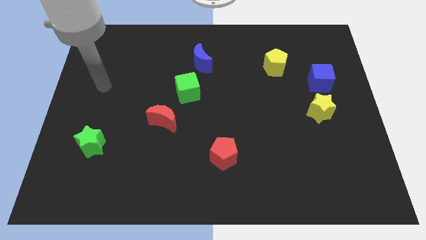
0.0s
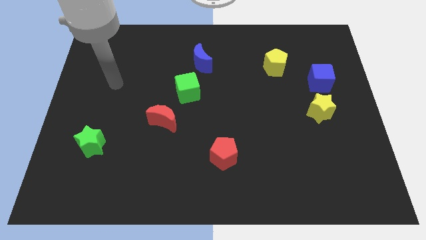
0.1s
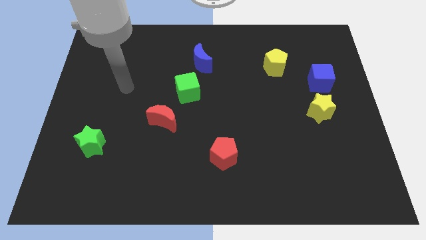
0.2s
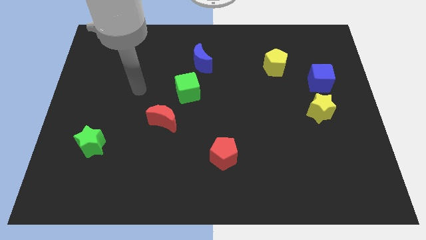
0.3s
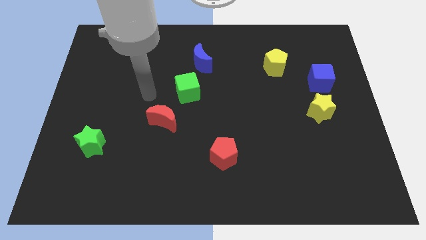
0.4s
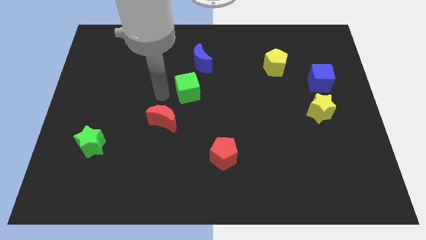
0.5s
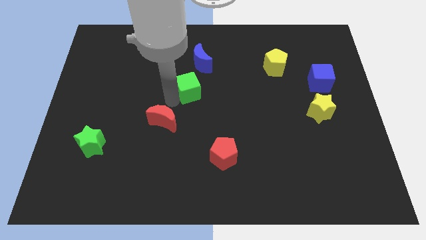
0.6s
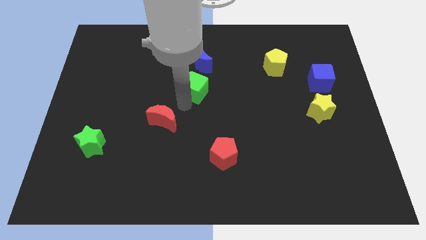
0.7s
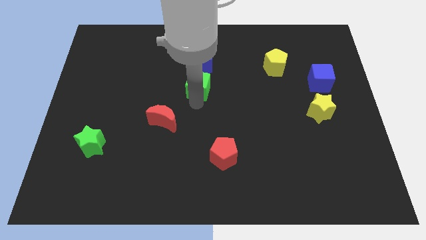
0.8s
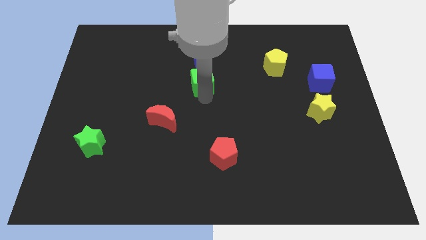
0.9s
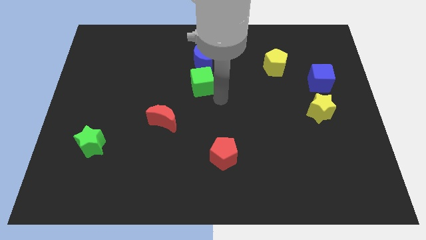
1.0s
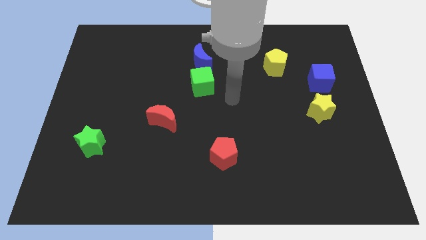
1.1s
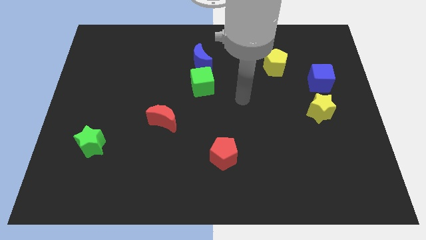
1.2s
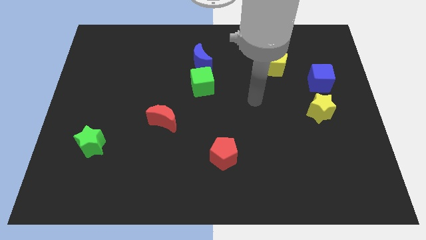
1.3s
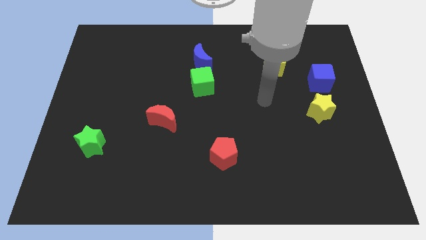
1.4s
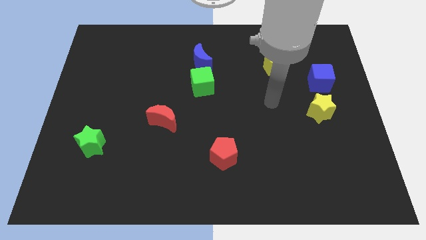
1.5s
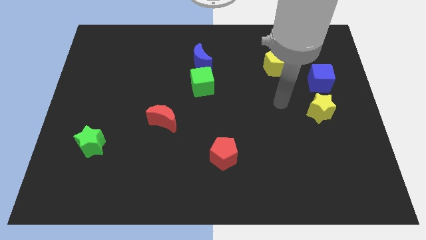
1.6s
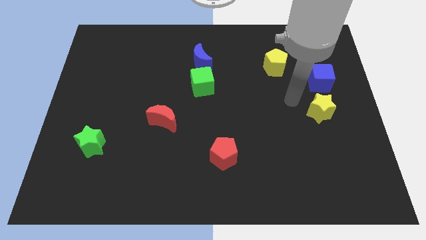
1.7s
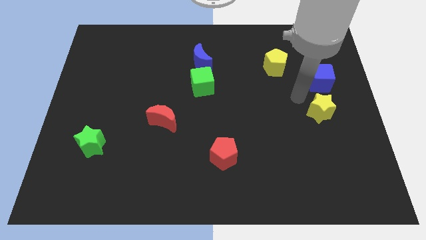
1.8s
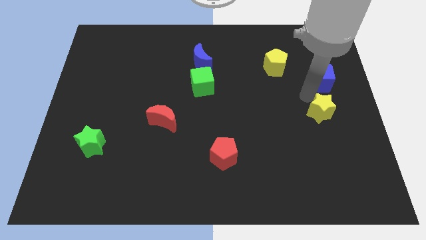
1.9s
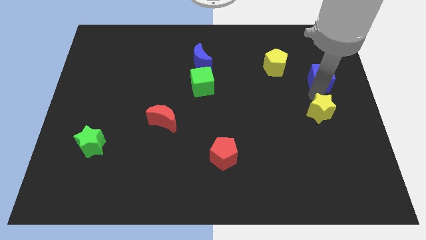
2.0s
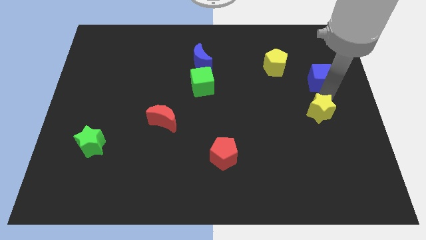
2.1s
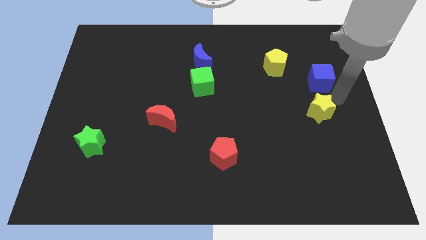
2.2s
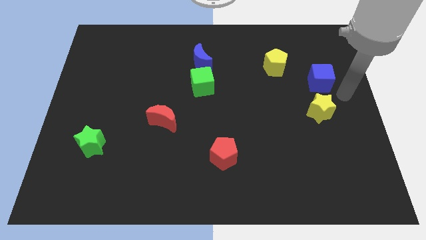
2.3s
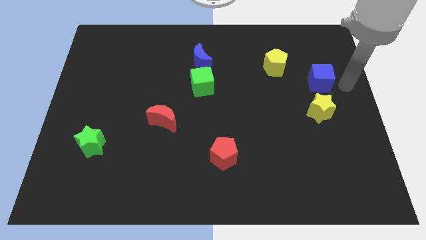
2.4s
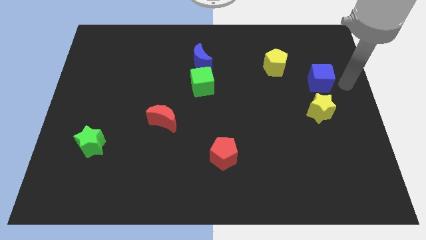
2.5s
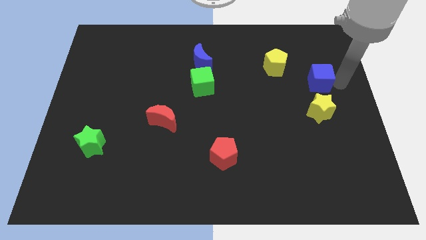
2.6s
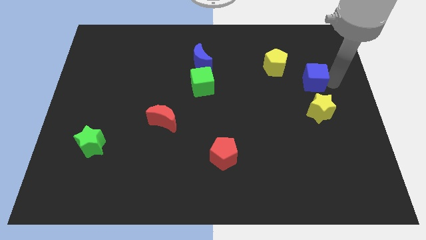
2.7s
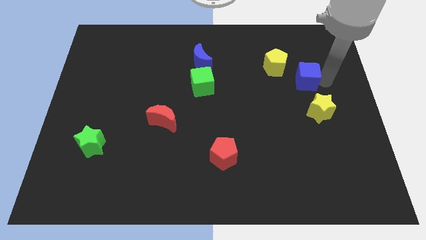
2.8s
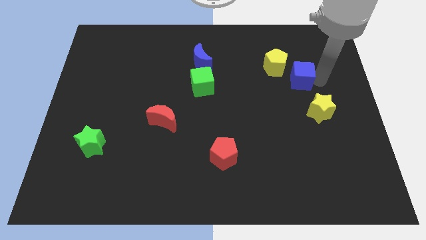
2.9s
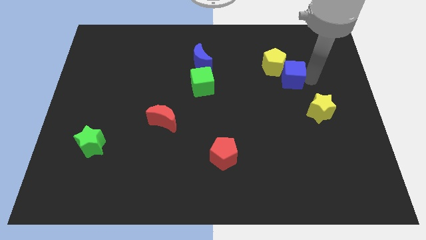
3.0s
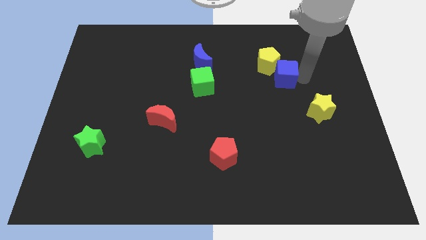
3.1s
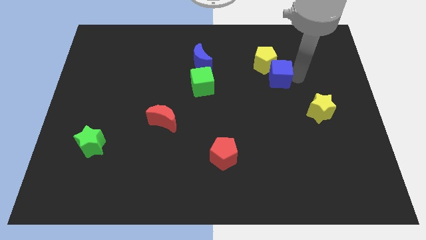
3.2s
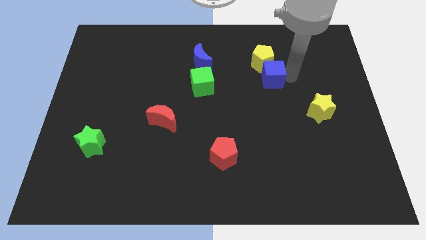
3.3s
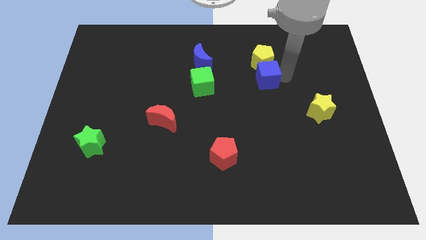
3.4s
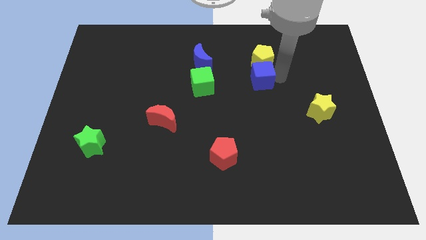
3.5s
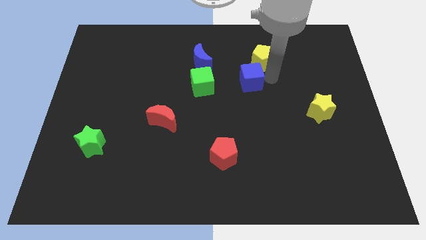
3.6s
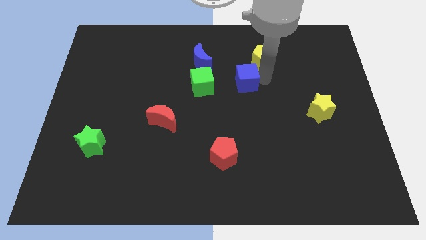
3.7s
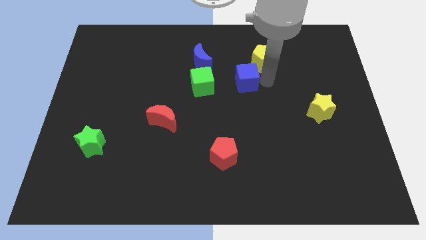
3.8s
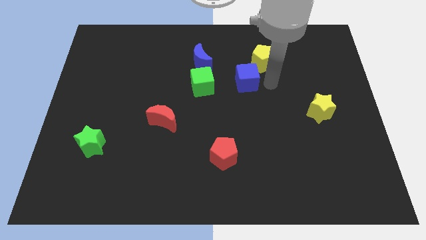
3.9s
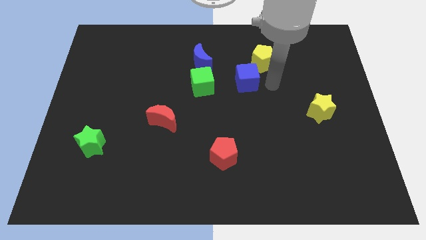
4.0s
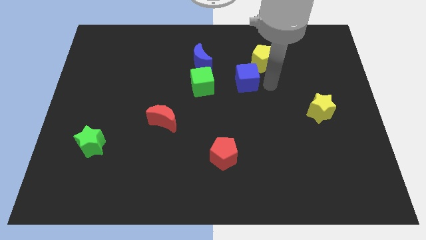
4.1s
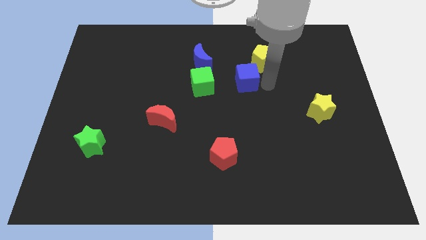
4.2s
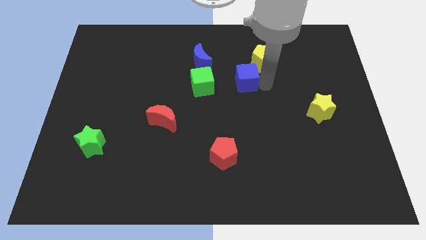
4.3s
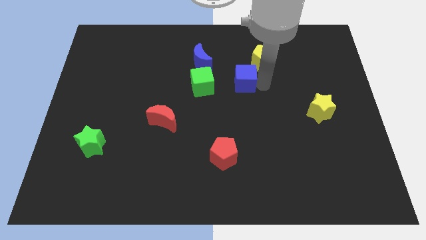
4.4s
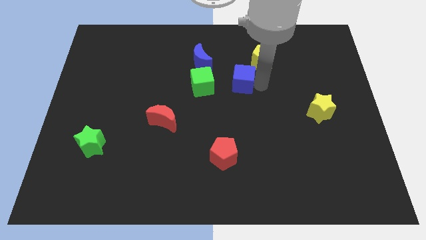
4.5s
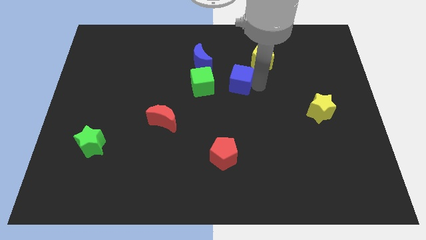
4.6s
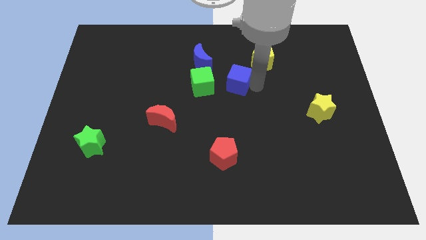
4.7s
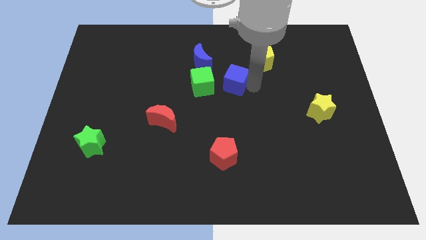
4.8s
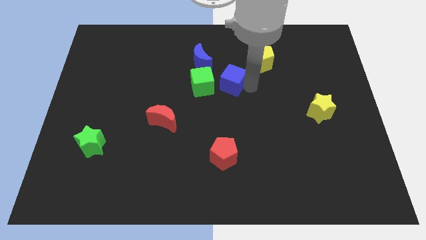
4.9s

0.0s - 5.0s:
slide the blue cube to the top right side of the green cube

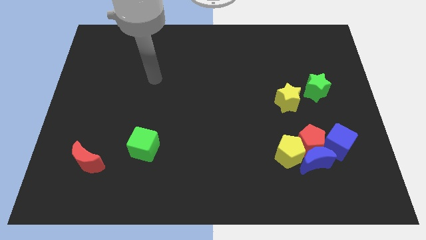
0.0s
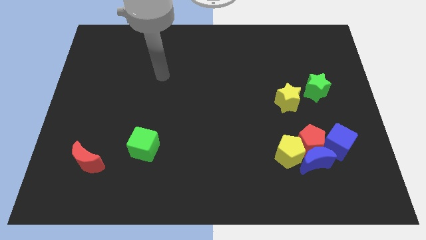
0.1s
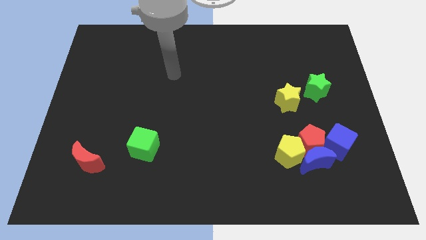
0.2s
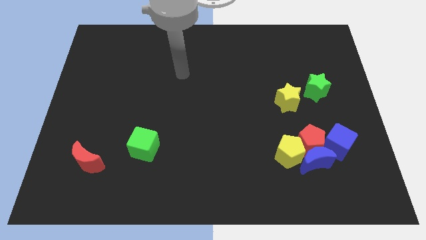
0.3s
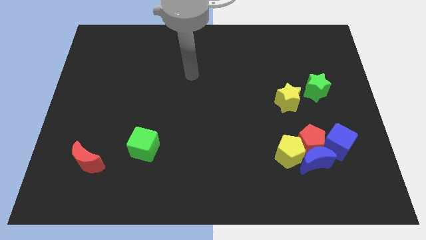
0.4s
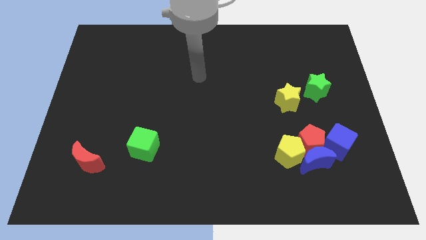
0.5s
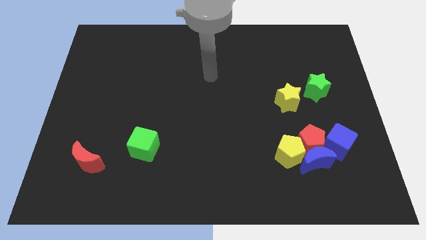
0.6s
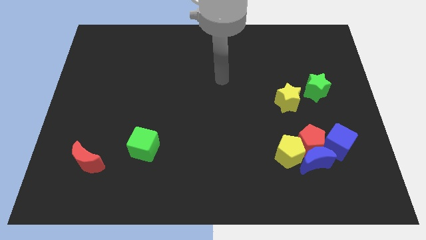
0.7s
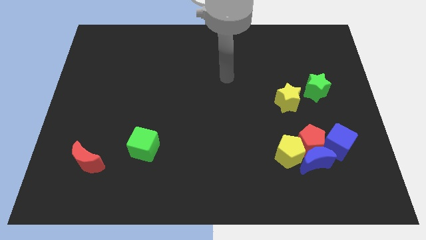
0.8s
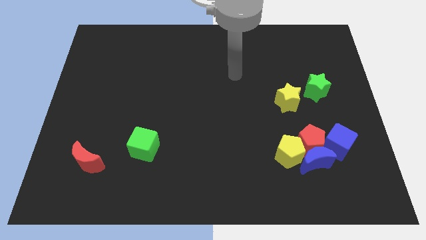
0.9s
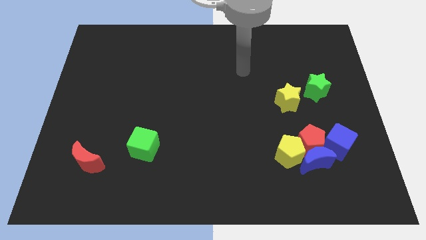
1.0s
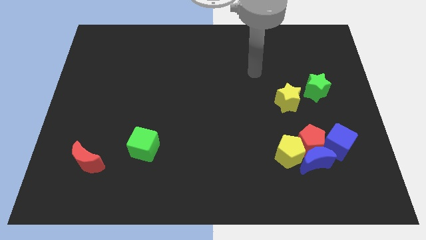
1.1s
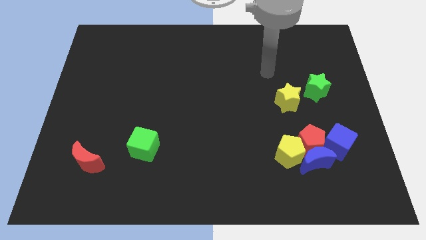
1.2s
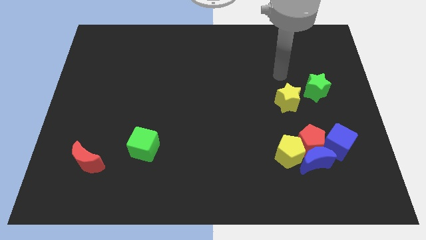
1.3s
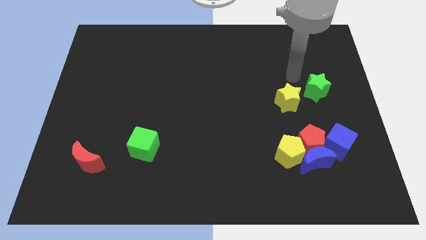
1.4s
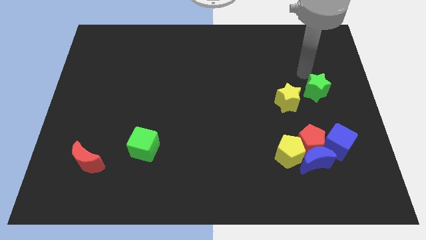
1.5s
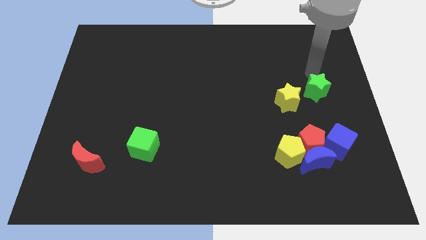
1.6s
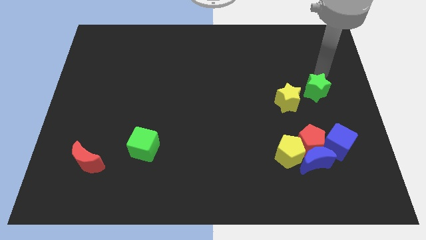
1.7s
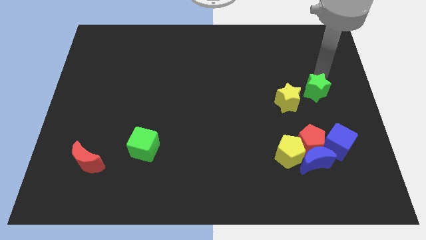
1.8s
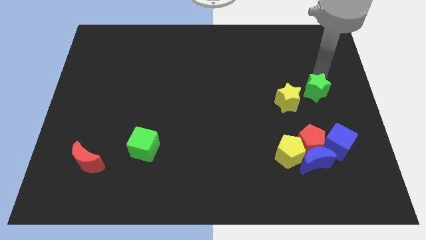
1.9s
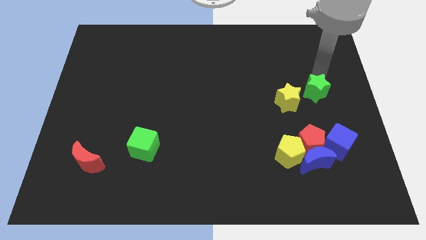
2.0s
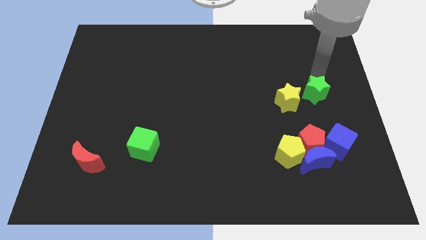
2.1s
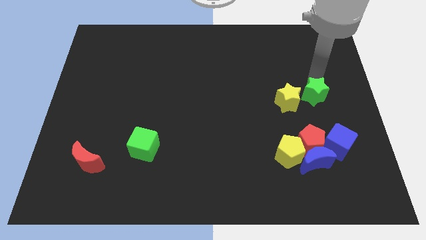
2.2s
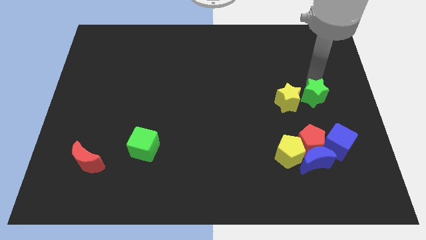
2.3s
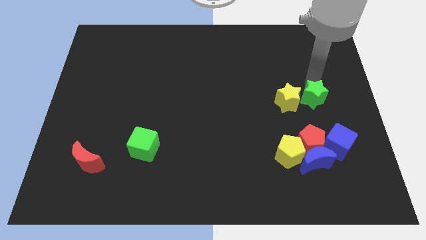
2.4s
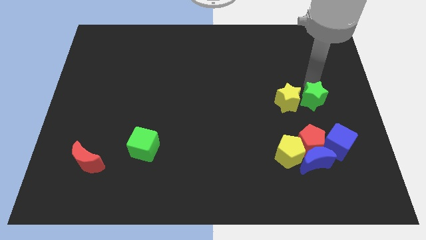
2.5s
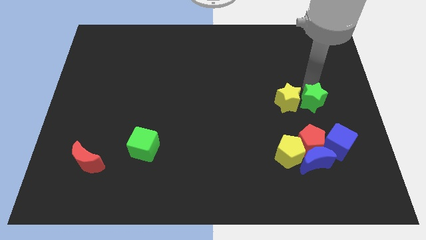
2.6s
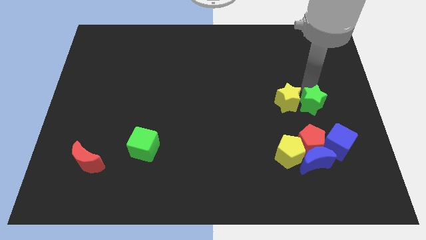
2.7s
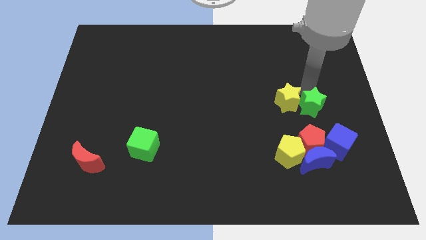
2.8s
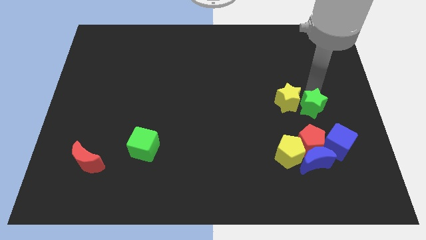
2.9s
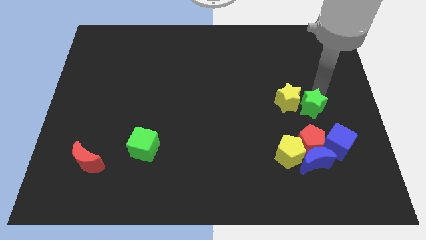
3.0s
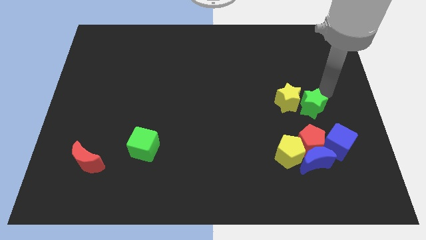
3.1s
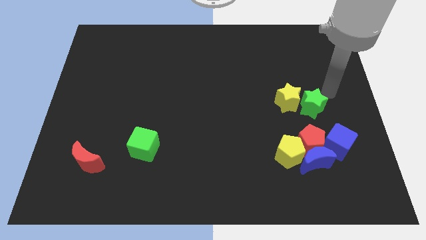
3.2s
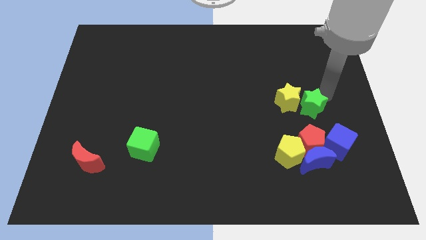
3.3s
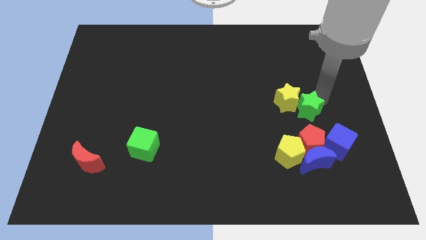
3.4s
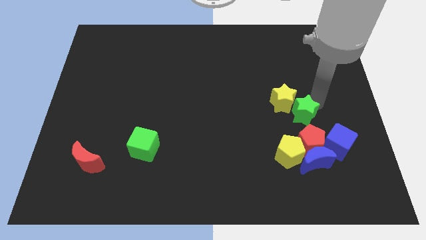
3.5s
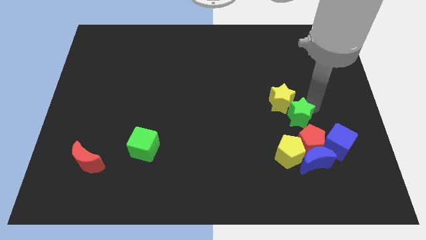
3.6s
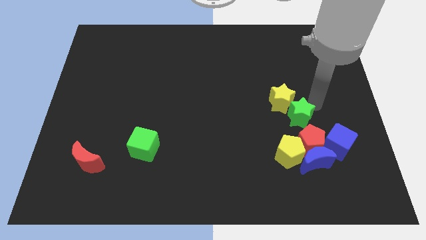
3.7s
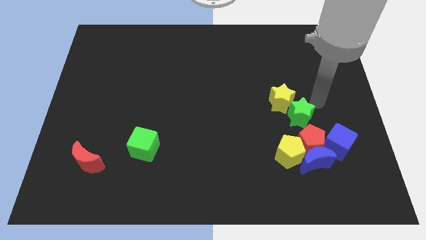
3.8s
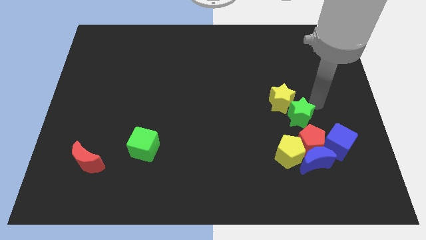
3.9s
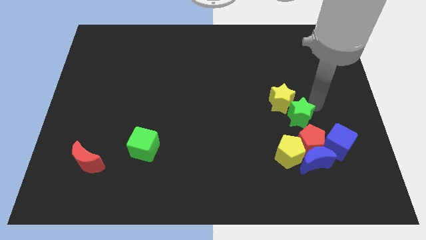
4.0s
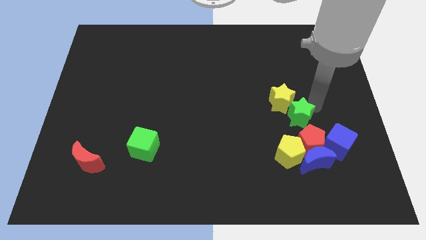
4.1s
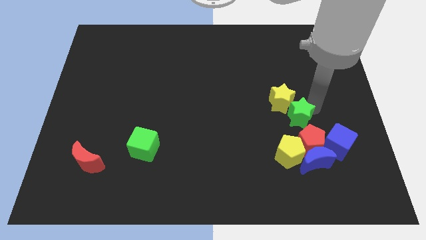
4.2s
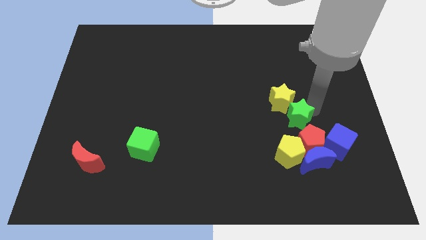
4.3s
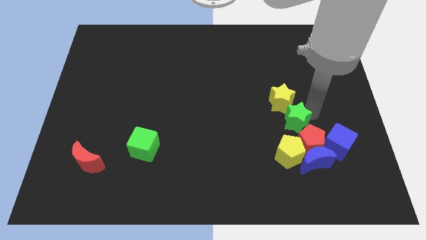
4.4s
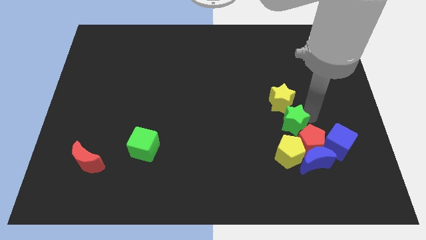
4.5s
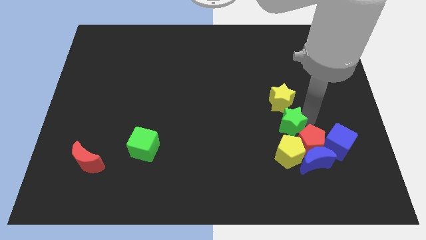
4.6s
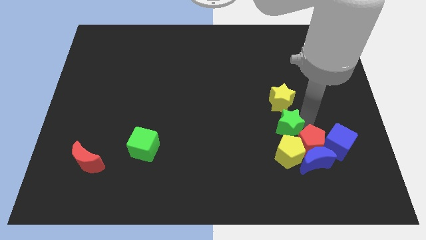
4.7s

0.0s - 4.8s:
put the green star left of the red pentagon
